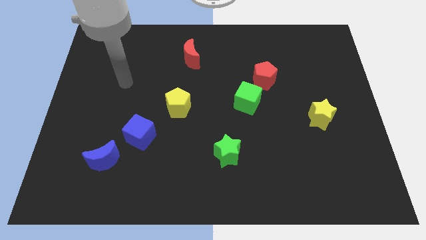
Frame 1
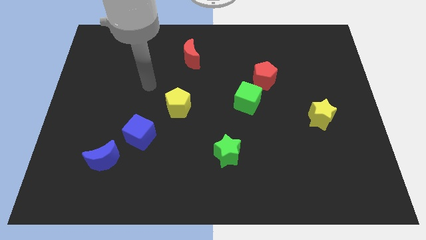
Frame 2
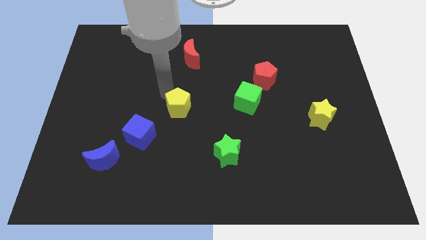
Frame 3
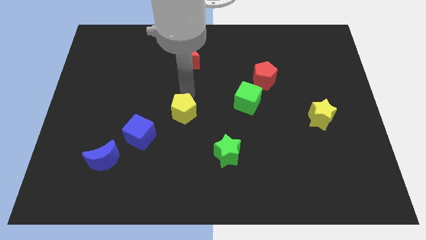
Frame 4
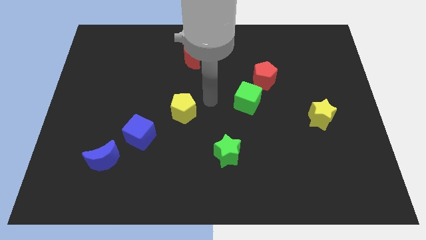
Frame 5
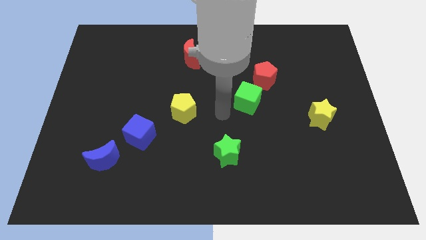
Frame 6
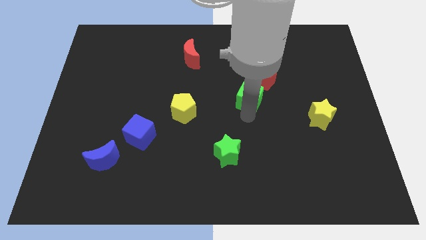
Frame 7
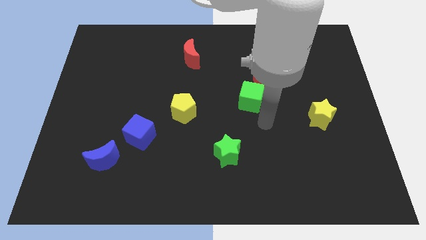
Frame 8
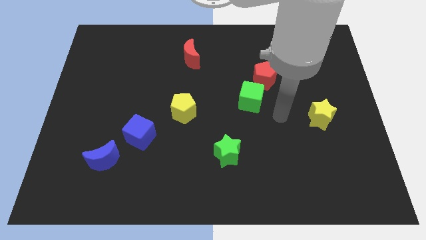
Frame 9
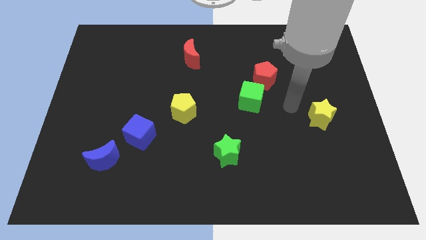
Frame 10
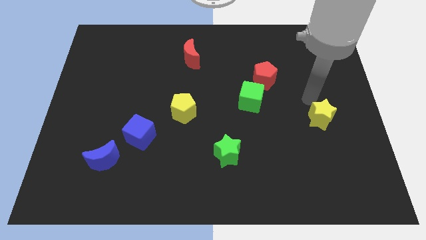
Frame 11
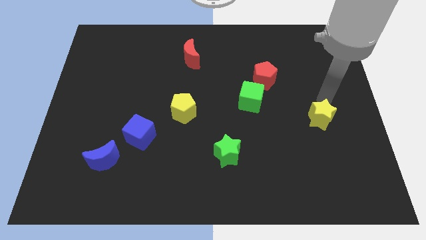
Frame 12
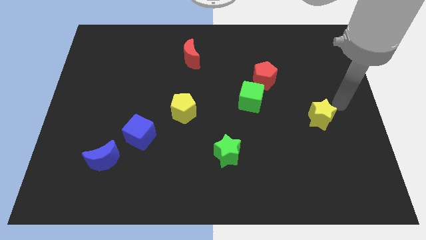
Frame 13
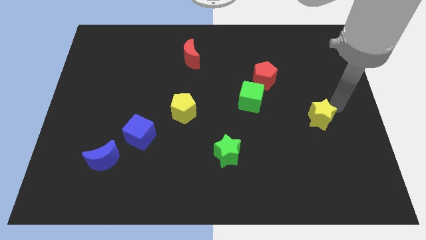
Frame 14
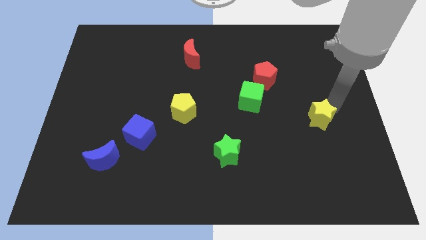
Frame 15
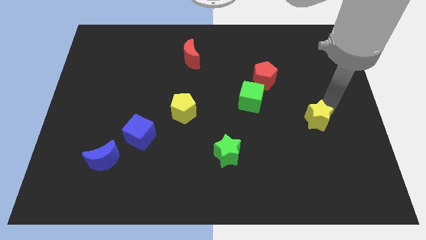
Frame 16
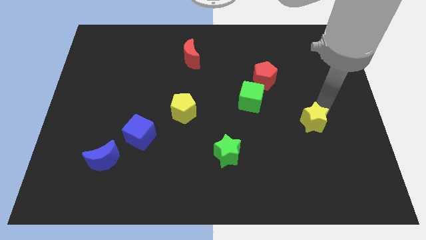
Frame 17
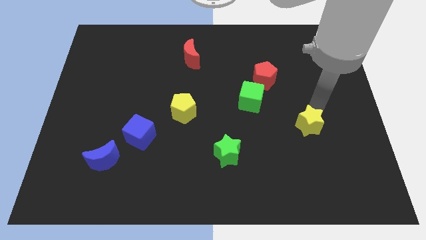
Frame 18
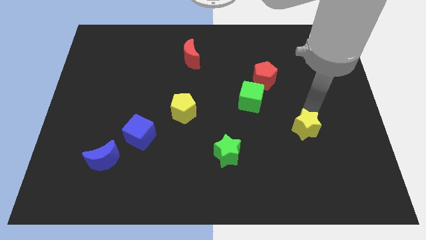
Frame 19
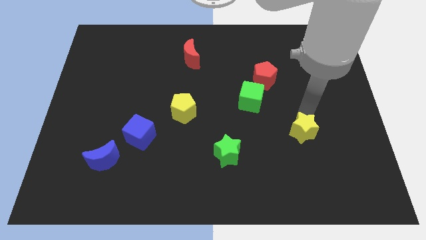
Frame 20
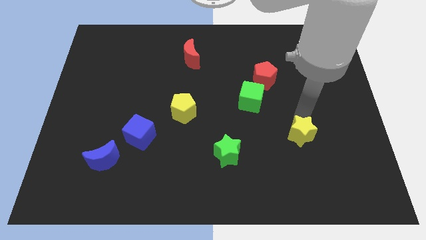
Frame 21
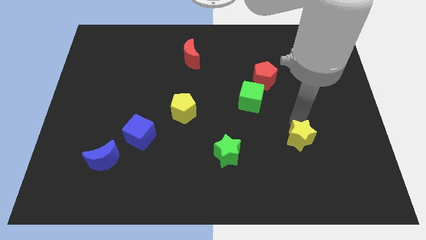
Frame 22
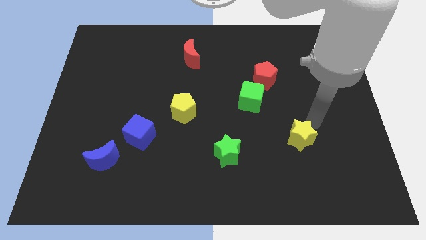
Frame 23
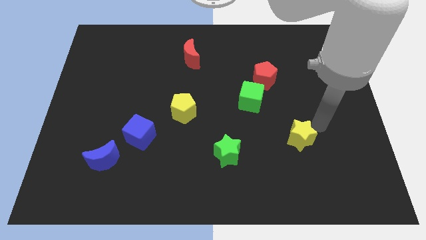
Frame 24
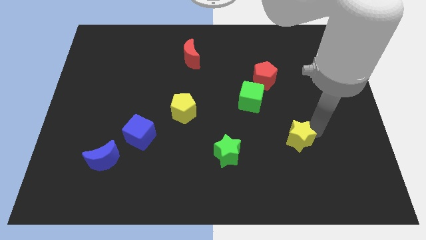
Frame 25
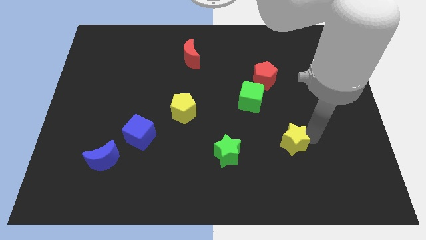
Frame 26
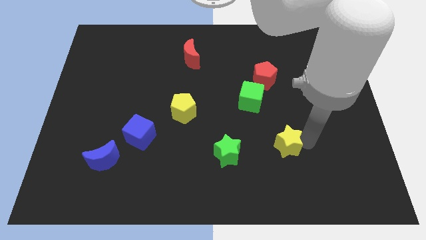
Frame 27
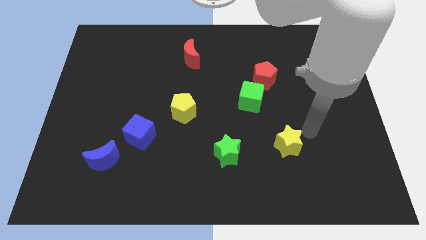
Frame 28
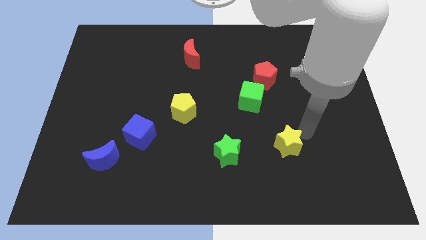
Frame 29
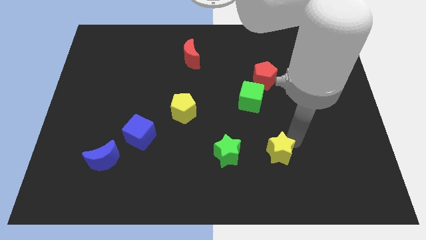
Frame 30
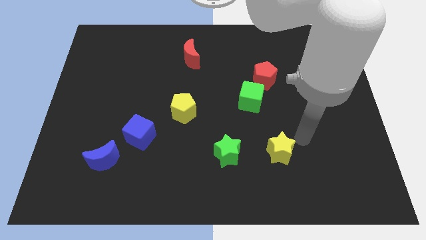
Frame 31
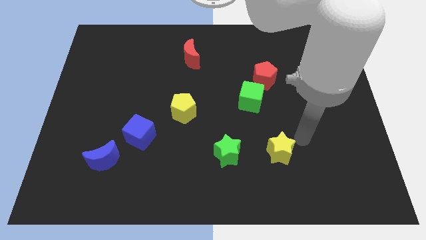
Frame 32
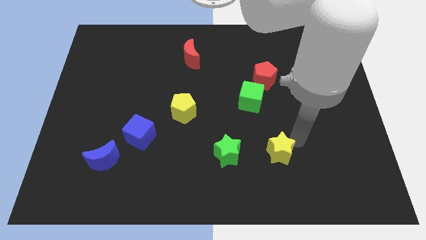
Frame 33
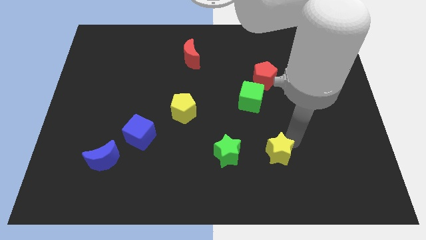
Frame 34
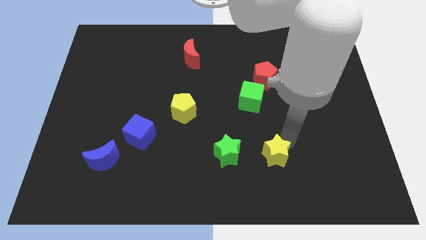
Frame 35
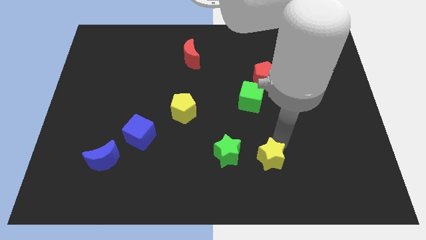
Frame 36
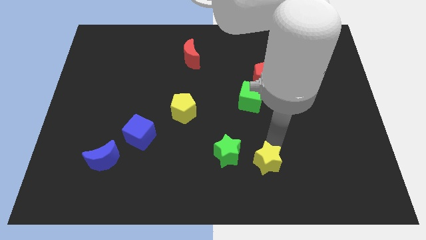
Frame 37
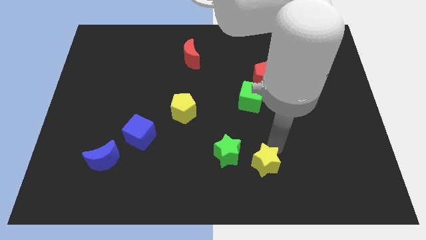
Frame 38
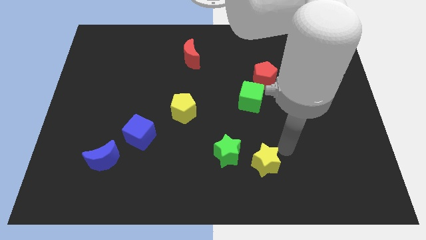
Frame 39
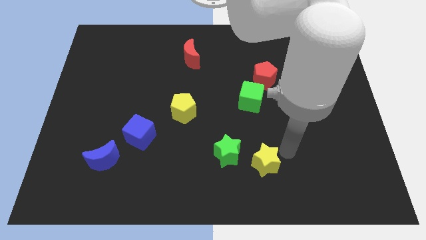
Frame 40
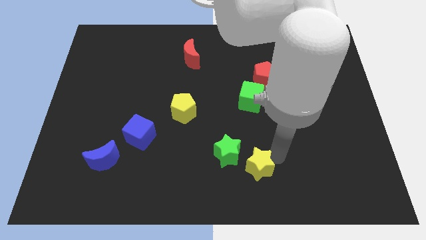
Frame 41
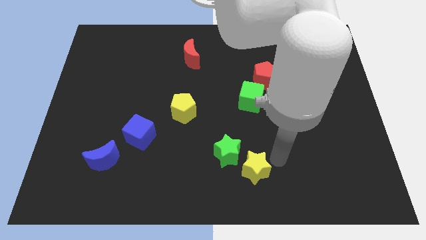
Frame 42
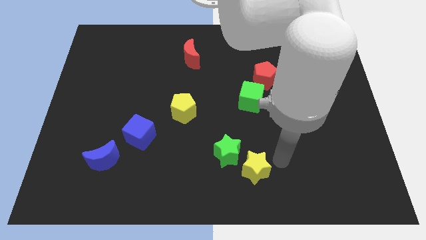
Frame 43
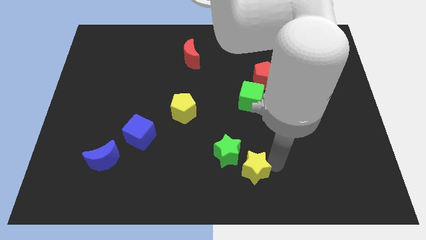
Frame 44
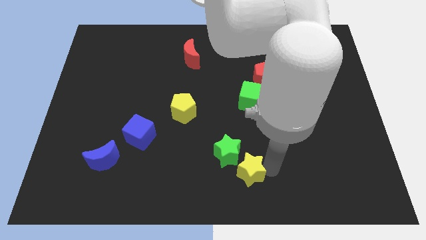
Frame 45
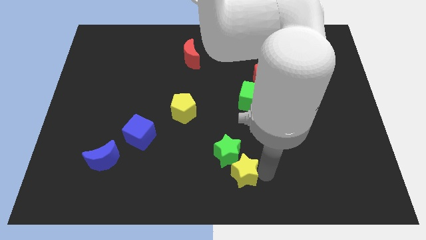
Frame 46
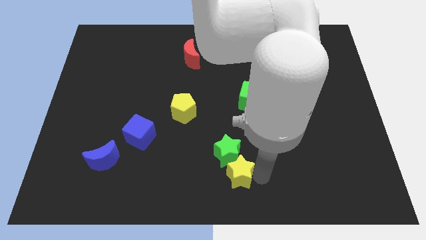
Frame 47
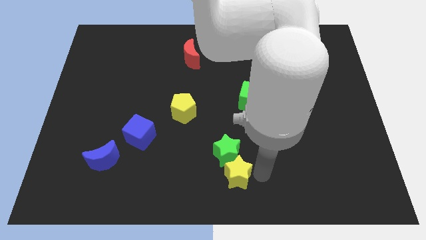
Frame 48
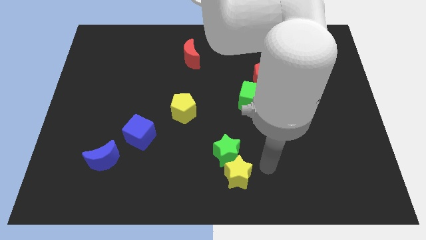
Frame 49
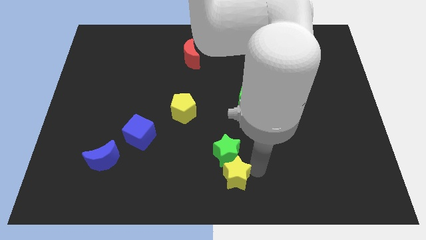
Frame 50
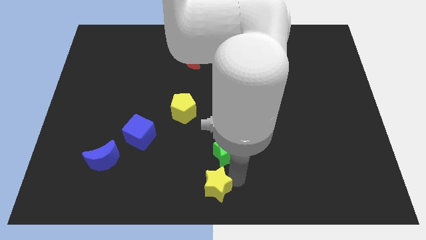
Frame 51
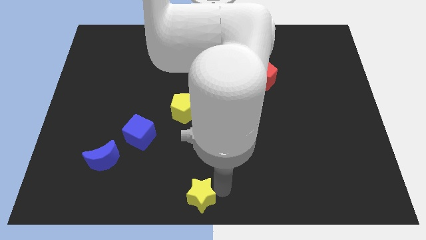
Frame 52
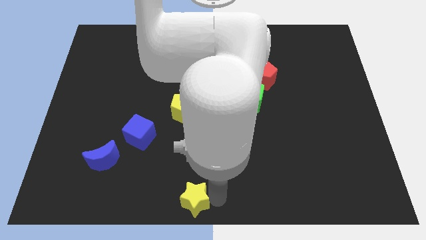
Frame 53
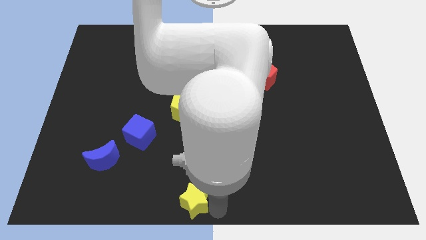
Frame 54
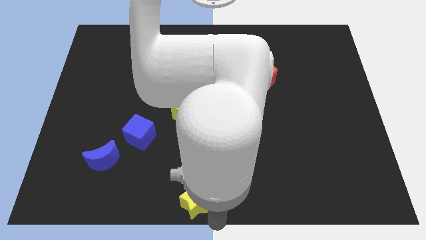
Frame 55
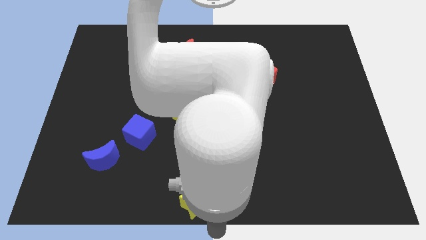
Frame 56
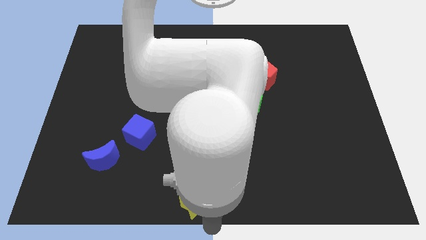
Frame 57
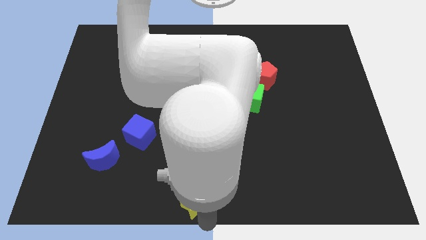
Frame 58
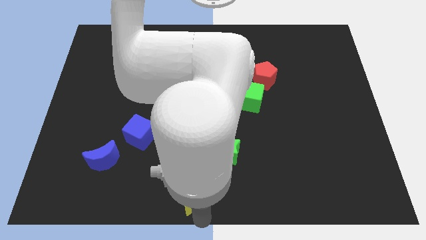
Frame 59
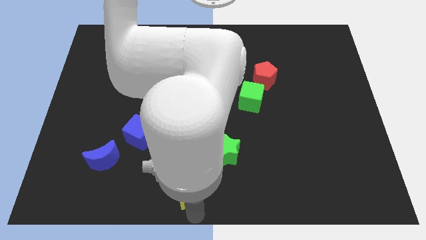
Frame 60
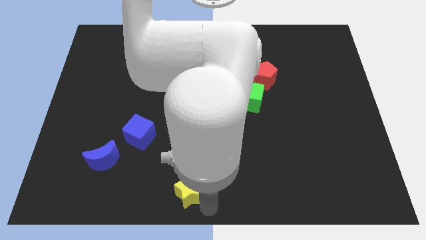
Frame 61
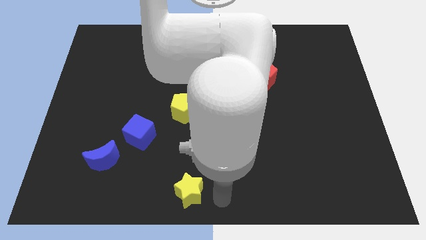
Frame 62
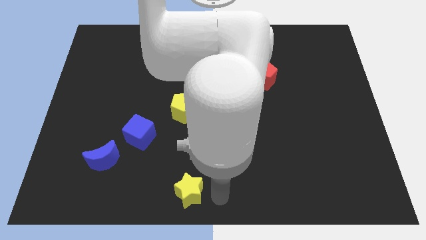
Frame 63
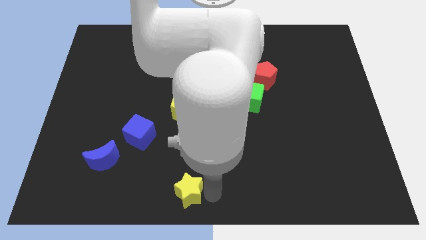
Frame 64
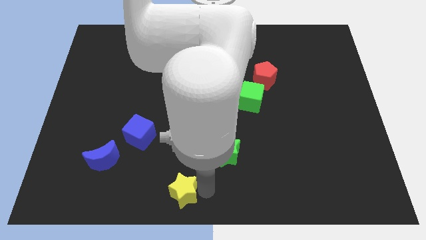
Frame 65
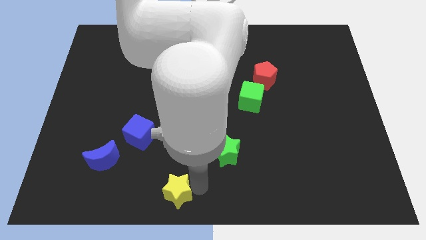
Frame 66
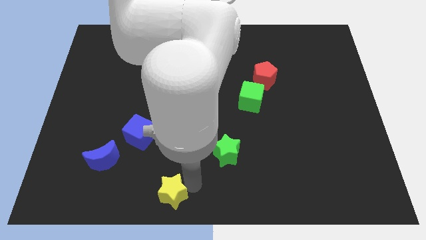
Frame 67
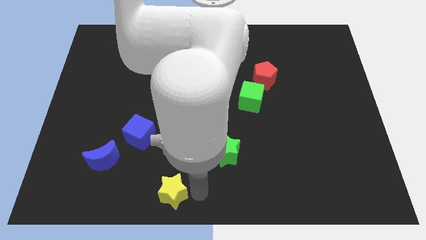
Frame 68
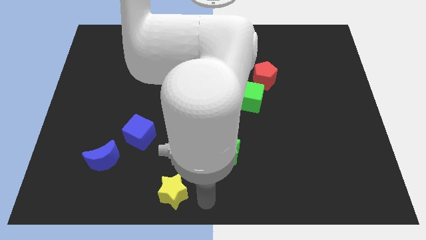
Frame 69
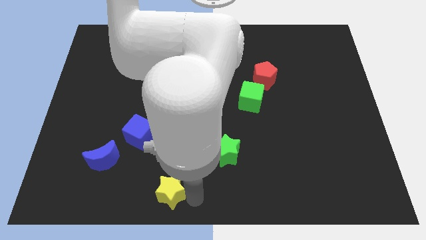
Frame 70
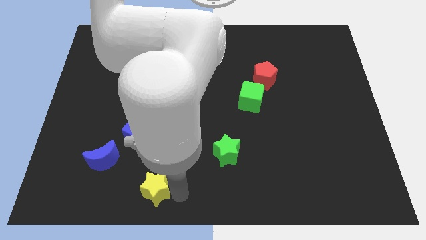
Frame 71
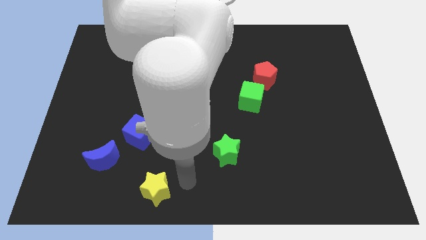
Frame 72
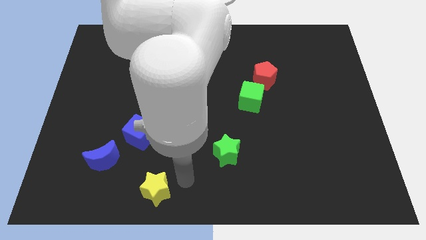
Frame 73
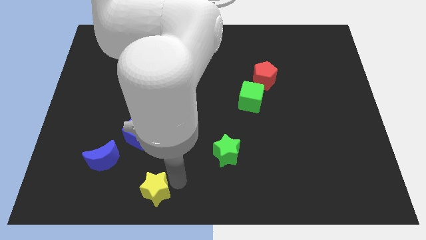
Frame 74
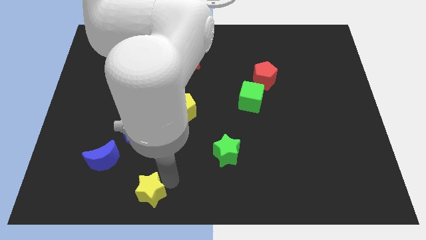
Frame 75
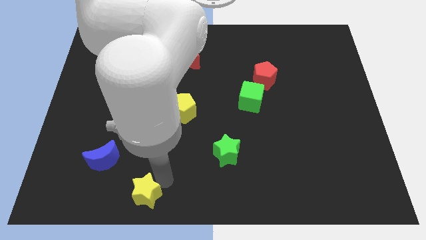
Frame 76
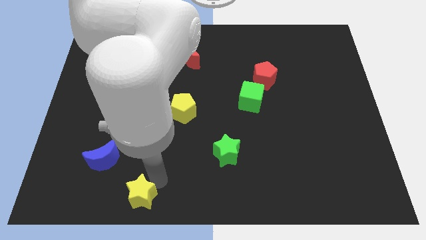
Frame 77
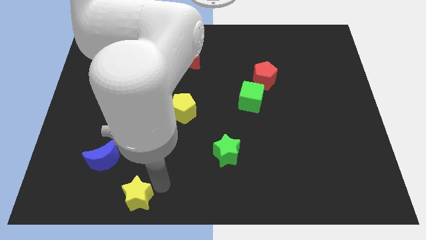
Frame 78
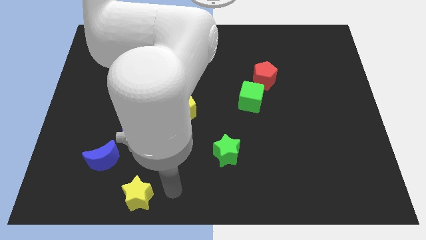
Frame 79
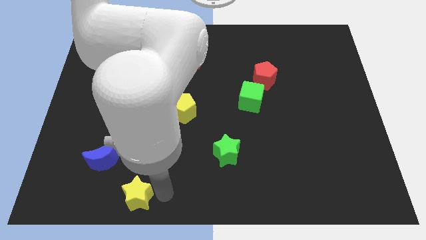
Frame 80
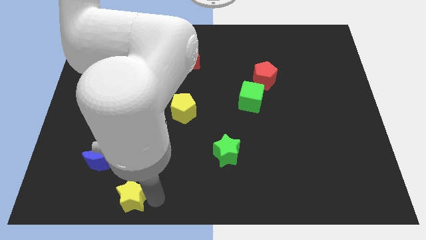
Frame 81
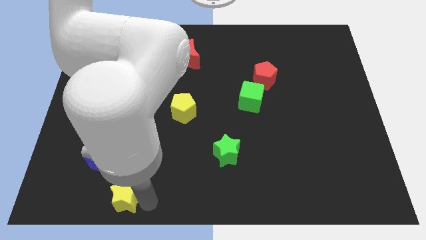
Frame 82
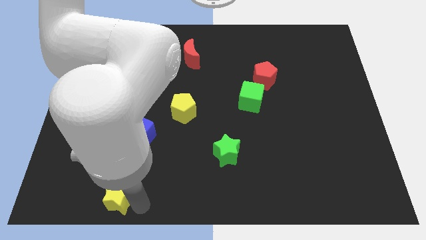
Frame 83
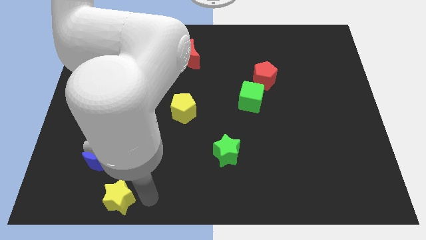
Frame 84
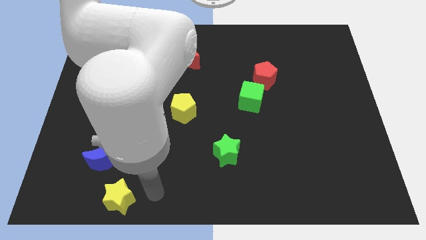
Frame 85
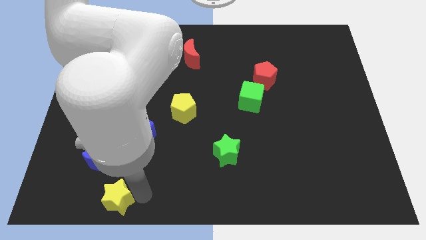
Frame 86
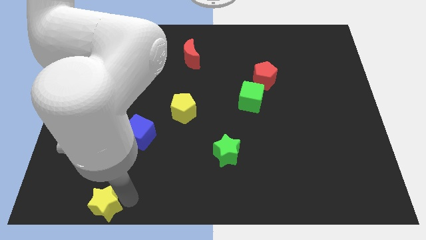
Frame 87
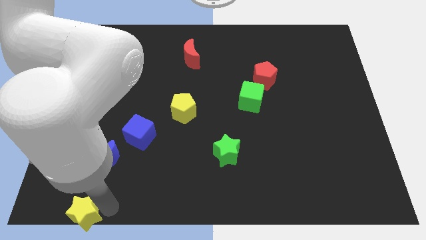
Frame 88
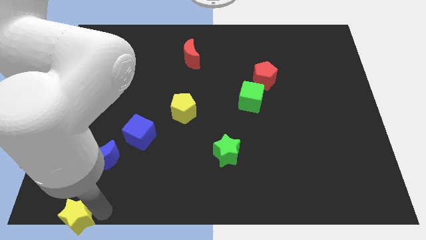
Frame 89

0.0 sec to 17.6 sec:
put the yellow star to the bottom left corner
